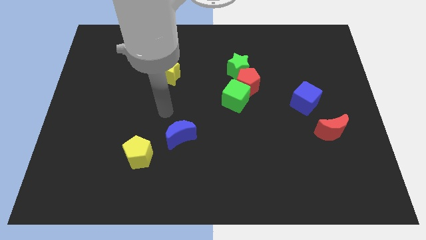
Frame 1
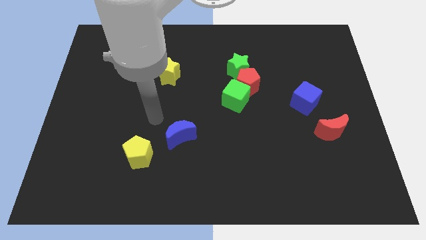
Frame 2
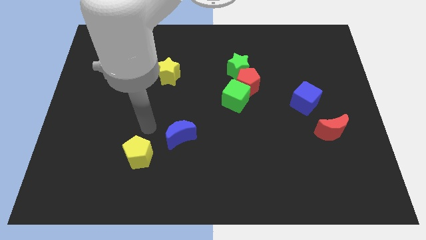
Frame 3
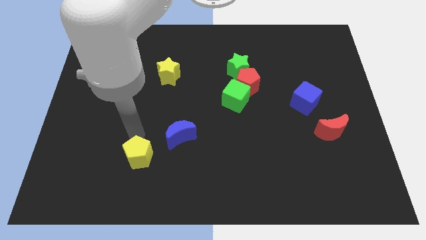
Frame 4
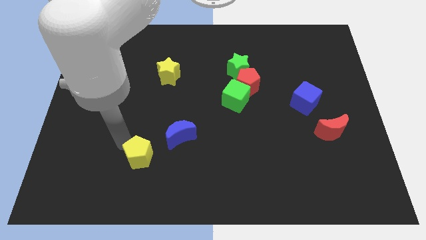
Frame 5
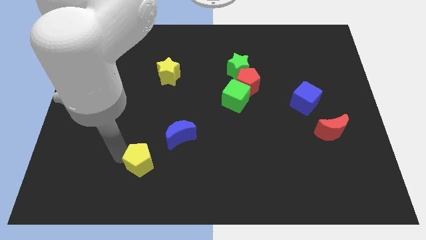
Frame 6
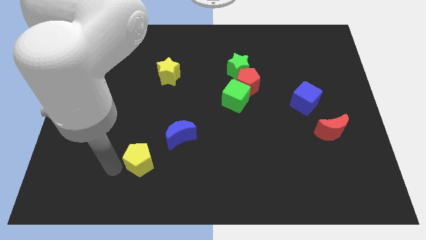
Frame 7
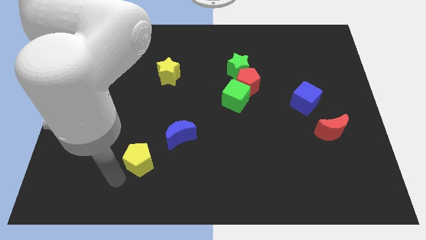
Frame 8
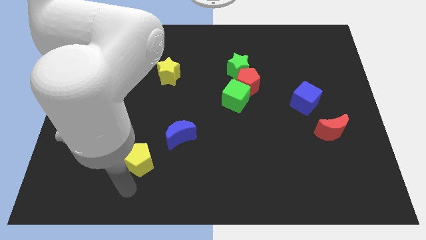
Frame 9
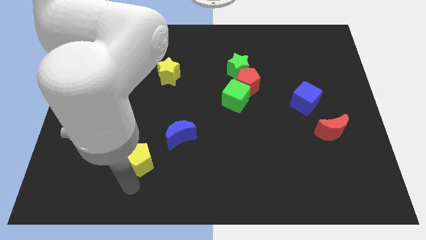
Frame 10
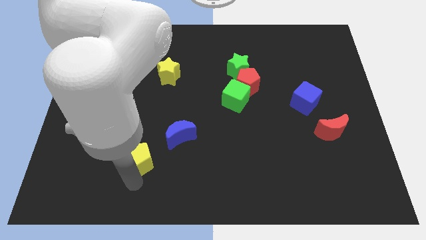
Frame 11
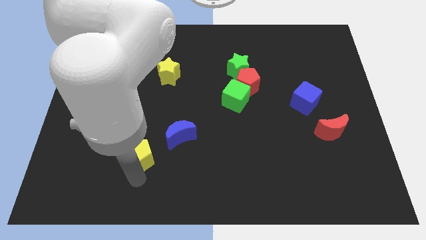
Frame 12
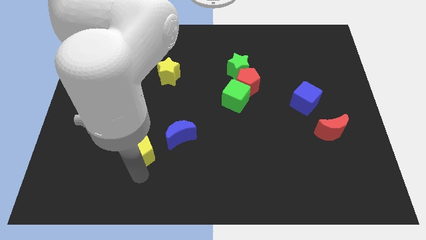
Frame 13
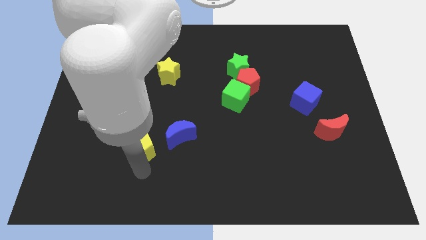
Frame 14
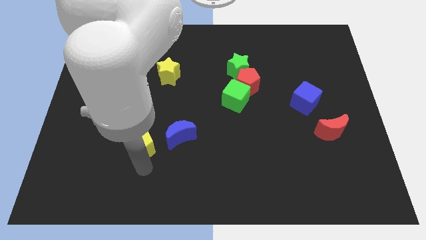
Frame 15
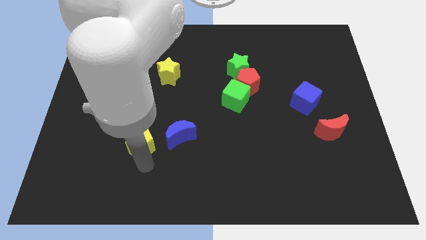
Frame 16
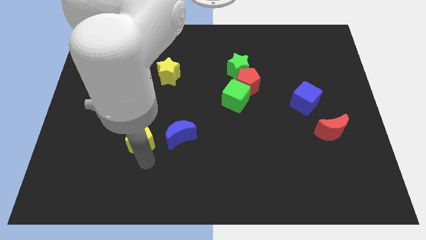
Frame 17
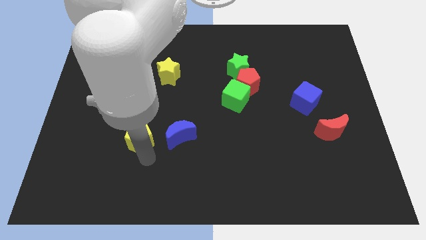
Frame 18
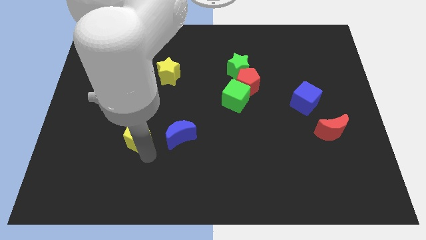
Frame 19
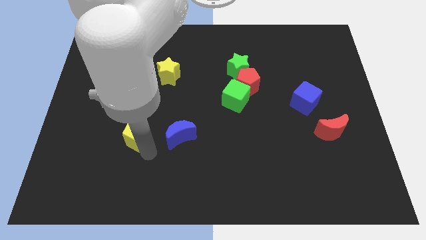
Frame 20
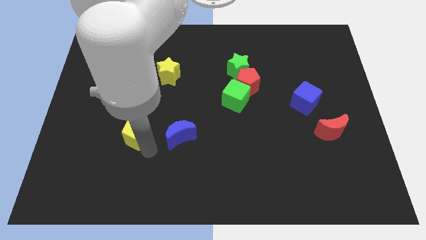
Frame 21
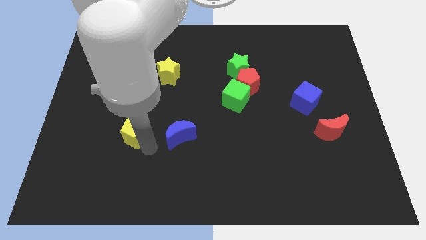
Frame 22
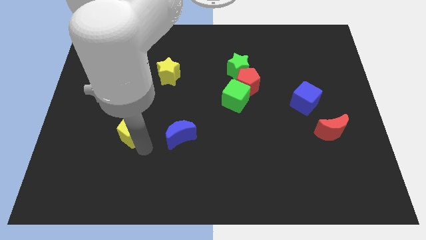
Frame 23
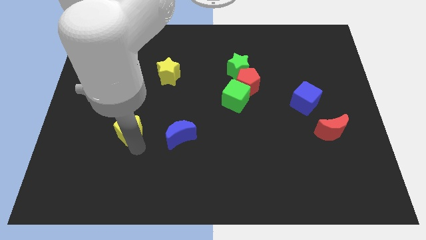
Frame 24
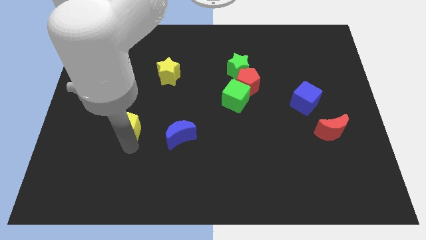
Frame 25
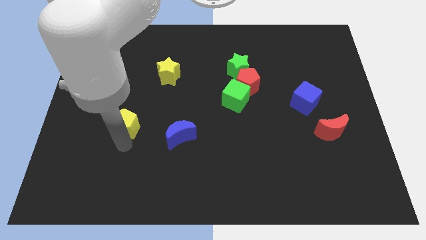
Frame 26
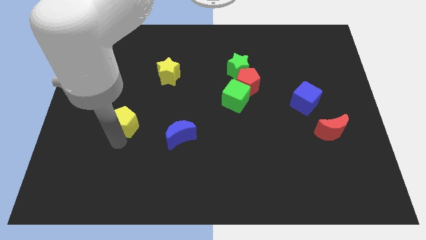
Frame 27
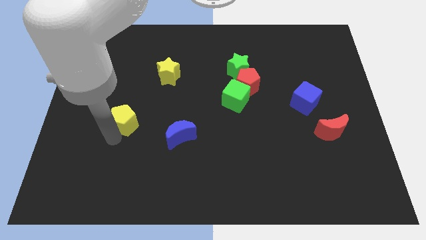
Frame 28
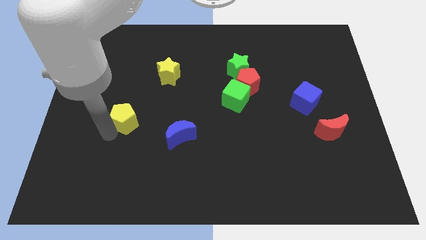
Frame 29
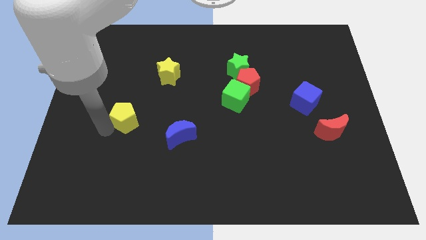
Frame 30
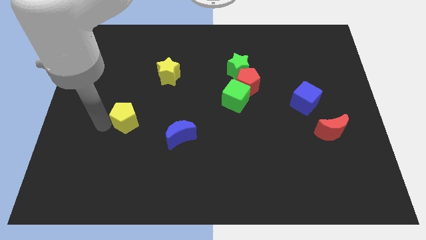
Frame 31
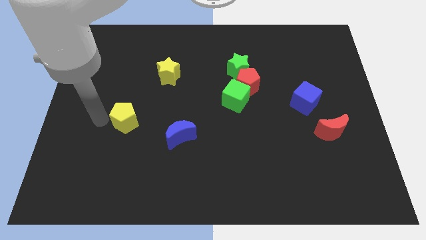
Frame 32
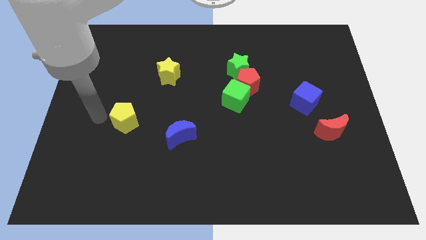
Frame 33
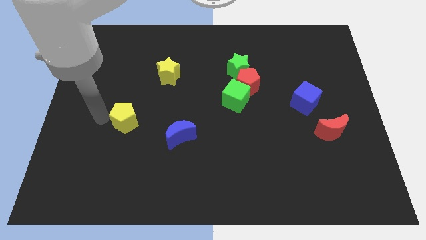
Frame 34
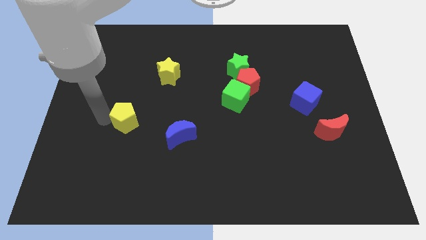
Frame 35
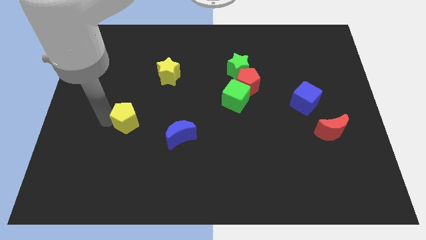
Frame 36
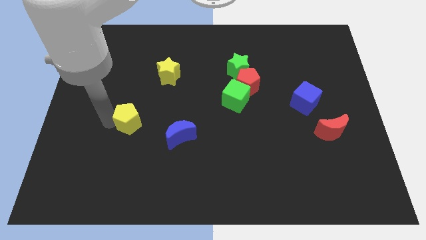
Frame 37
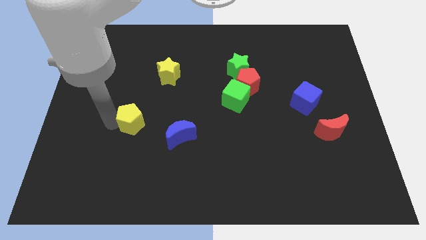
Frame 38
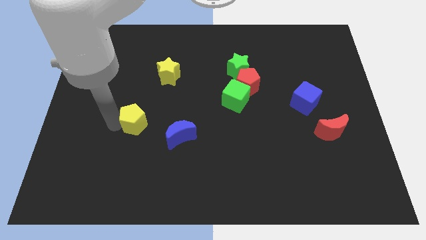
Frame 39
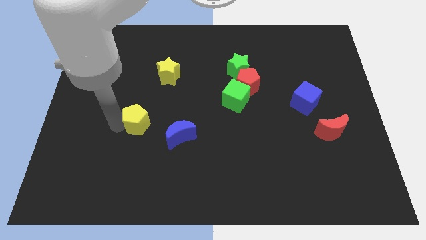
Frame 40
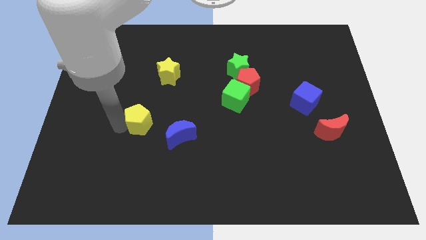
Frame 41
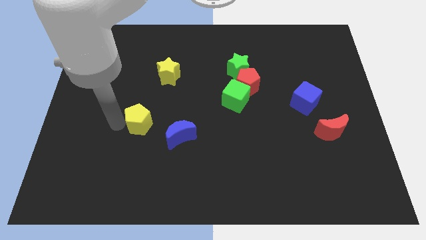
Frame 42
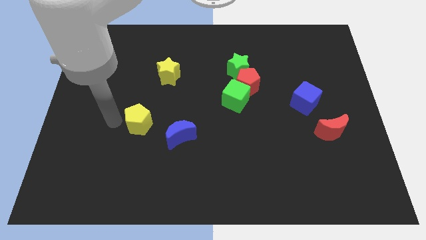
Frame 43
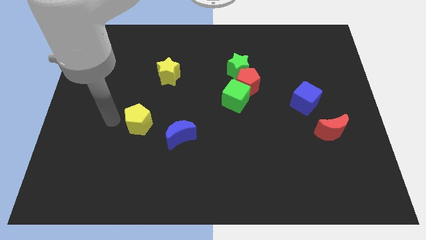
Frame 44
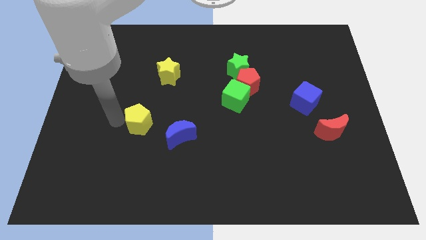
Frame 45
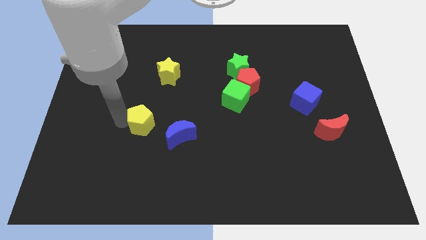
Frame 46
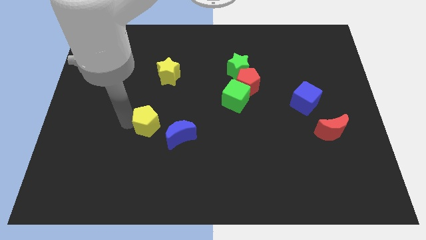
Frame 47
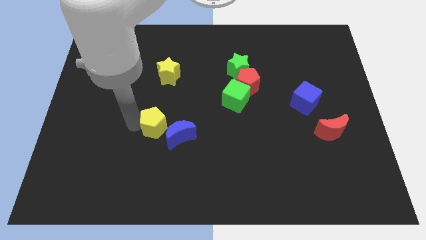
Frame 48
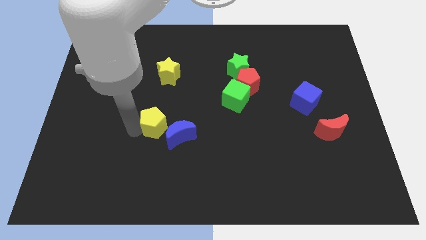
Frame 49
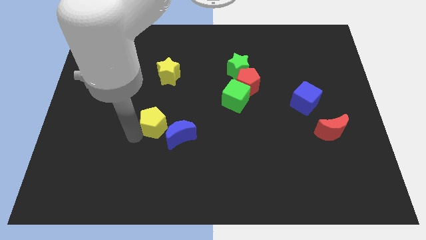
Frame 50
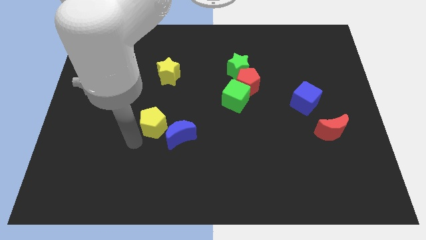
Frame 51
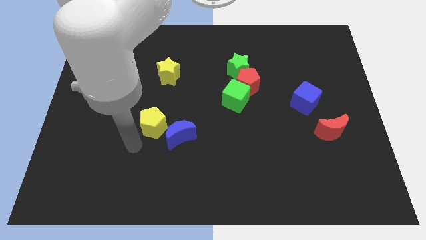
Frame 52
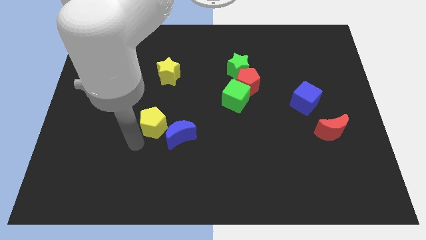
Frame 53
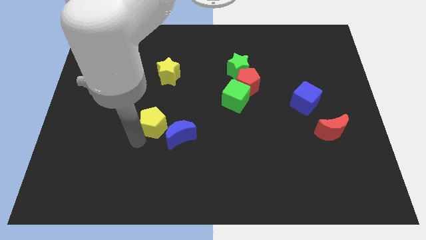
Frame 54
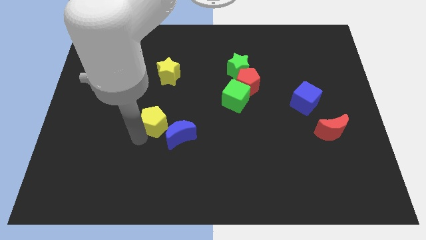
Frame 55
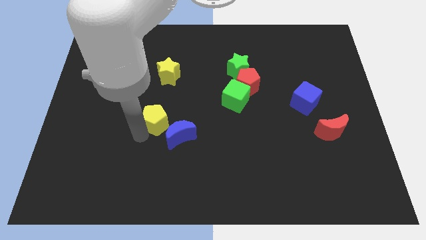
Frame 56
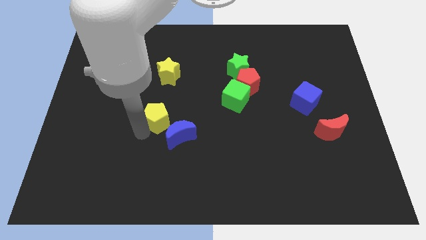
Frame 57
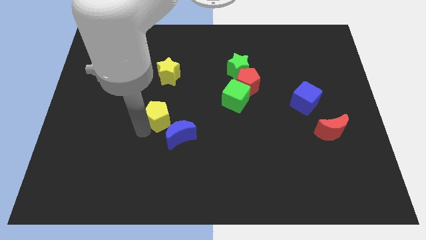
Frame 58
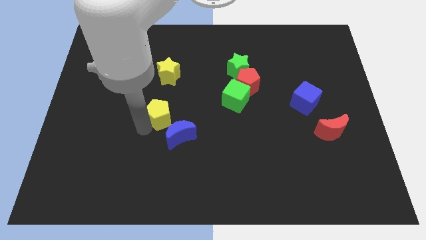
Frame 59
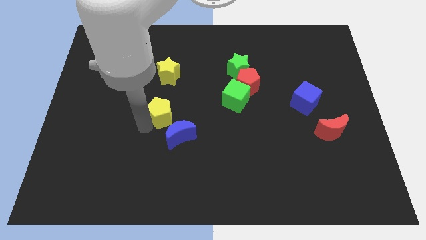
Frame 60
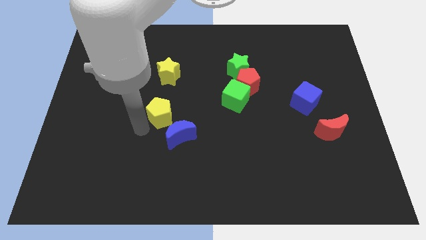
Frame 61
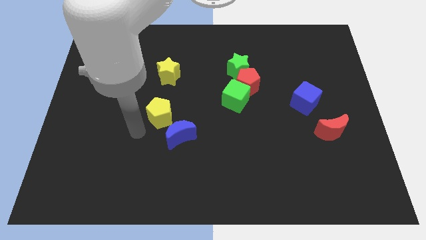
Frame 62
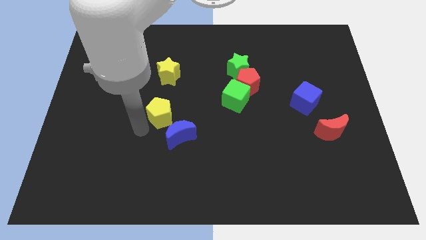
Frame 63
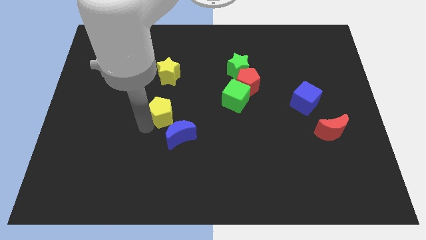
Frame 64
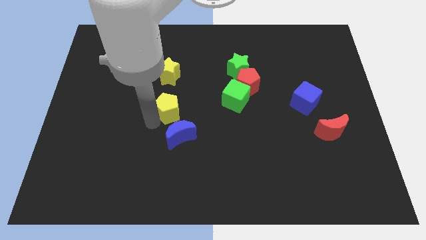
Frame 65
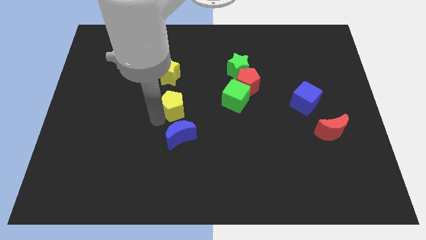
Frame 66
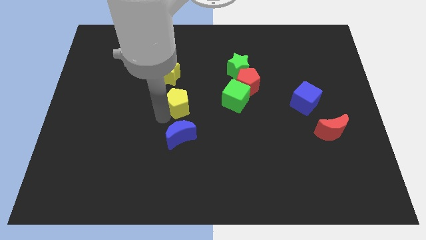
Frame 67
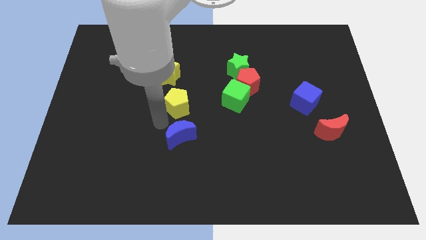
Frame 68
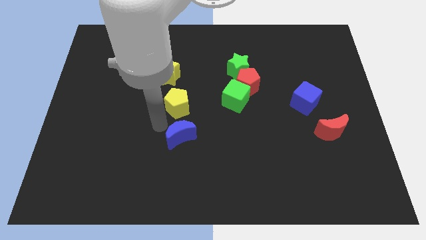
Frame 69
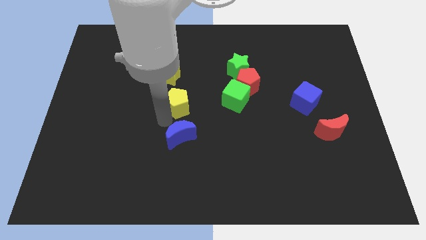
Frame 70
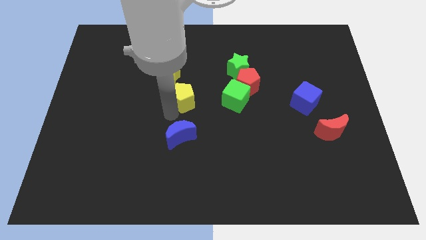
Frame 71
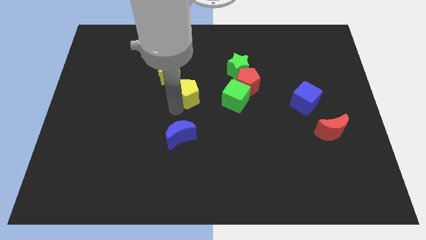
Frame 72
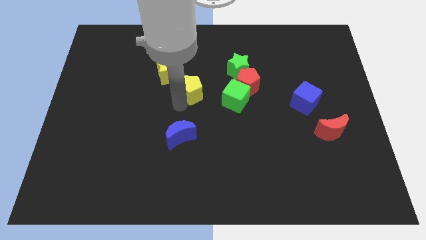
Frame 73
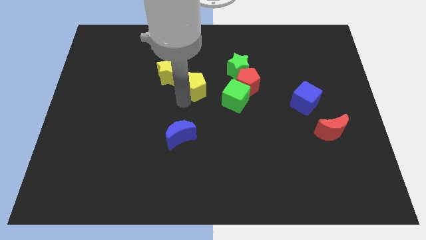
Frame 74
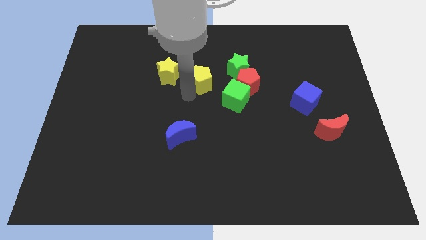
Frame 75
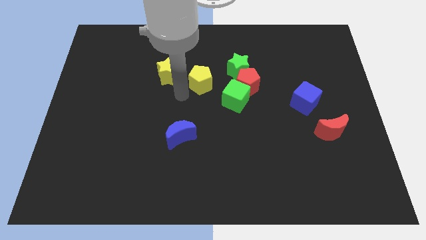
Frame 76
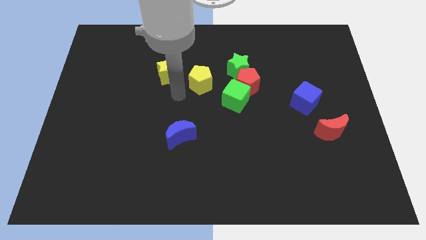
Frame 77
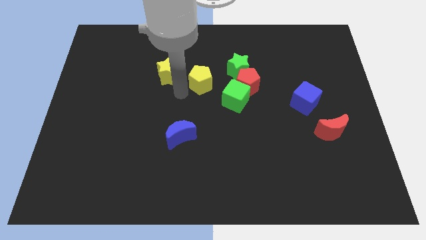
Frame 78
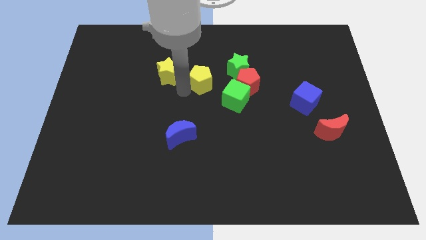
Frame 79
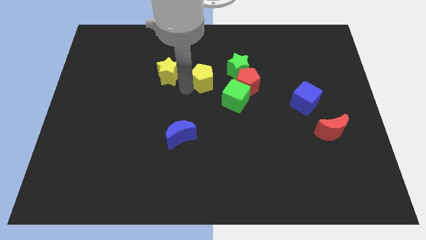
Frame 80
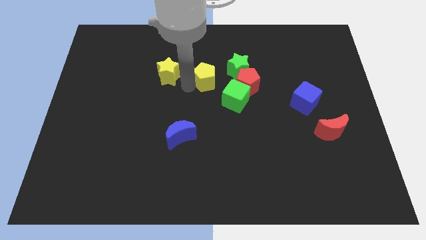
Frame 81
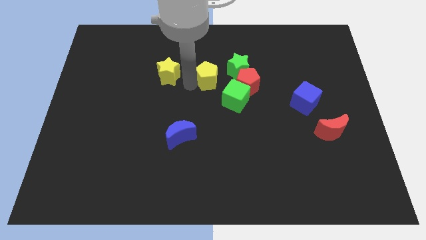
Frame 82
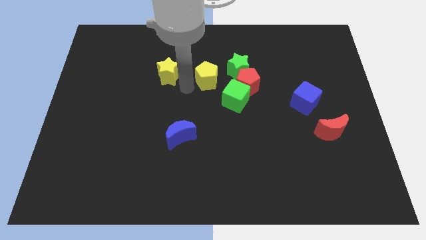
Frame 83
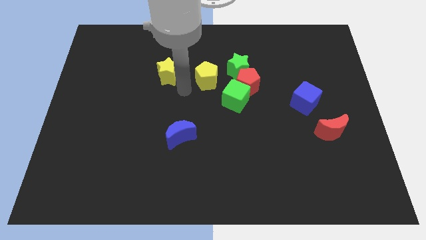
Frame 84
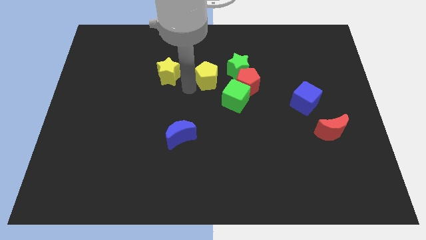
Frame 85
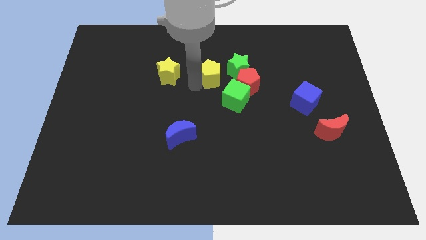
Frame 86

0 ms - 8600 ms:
push the yellow pentagon to the top left of the red pentagon
